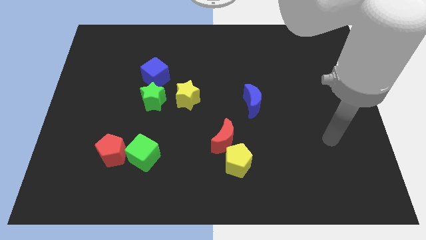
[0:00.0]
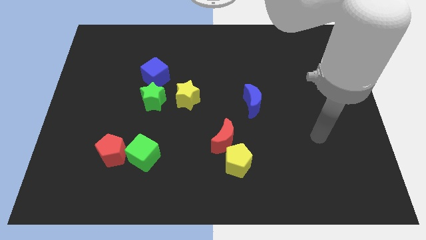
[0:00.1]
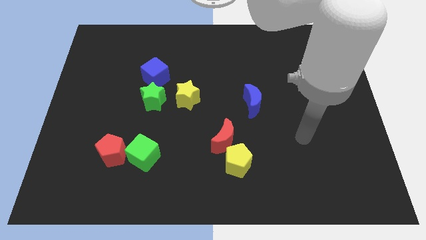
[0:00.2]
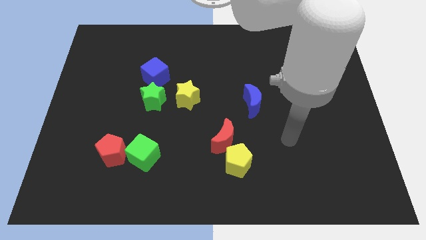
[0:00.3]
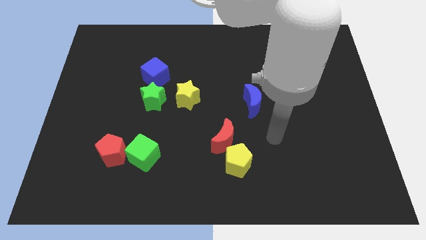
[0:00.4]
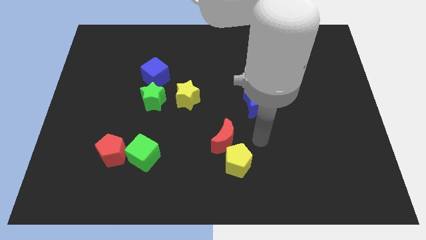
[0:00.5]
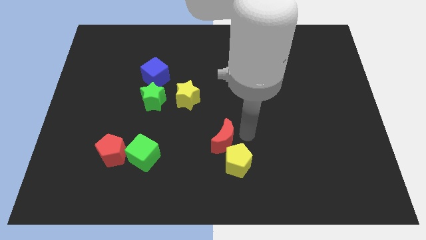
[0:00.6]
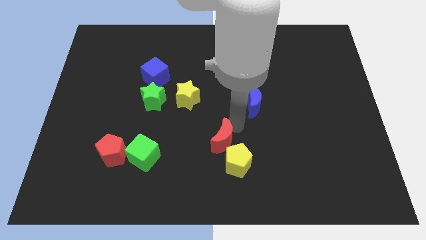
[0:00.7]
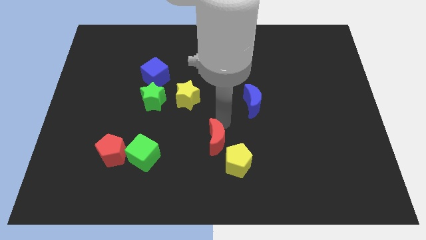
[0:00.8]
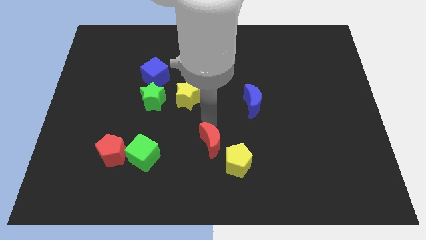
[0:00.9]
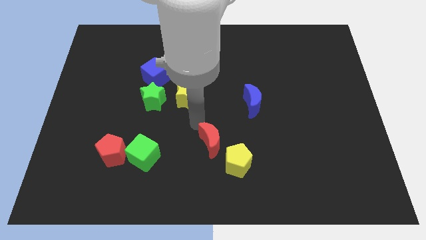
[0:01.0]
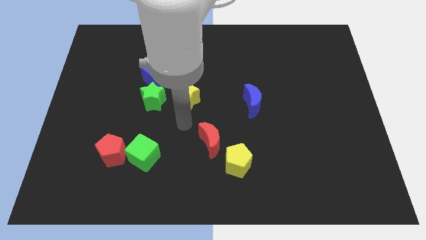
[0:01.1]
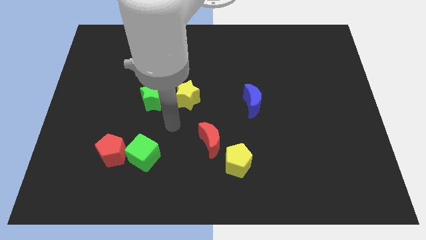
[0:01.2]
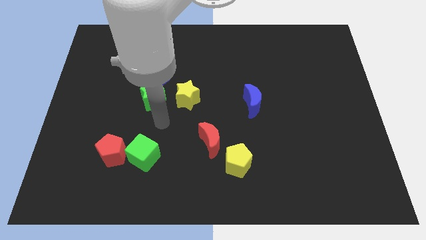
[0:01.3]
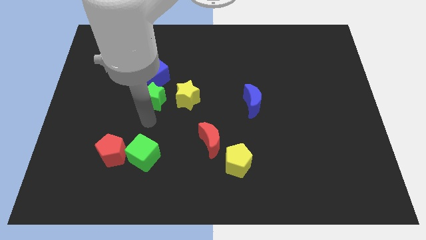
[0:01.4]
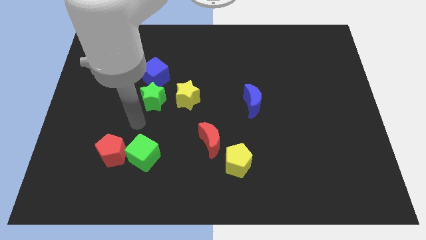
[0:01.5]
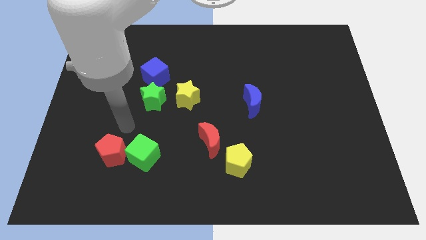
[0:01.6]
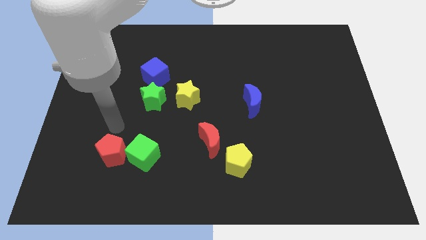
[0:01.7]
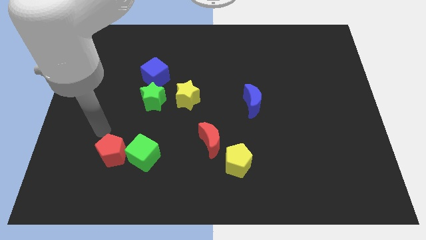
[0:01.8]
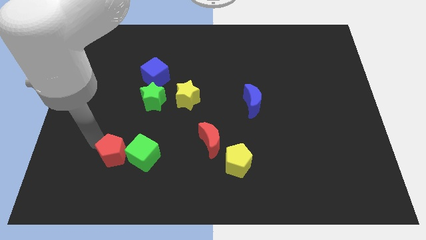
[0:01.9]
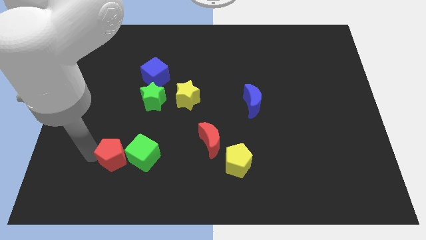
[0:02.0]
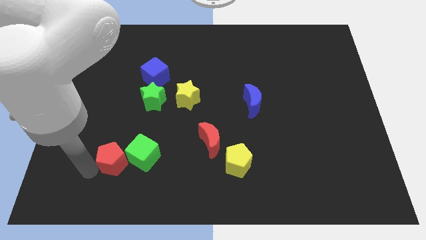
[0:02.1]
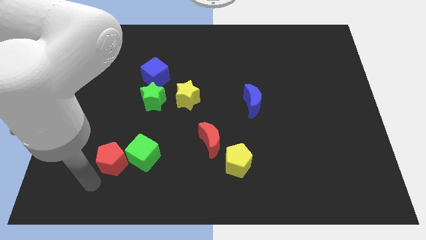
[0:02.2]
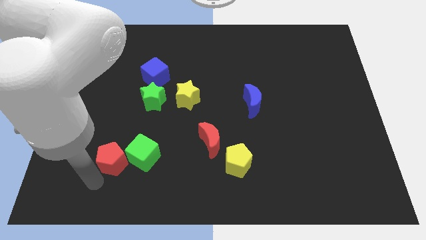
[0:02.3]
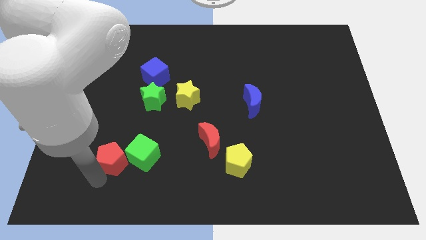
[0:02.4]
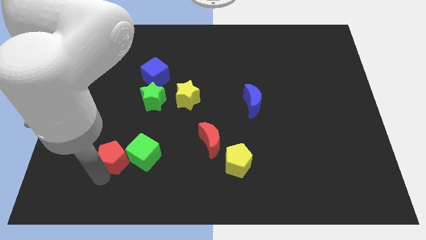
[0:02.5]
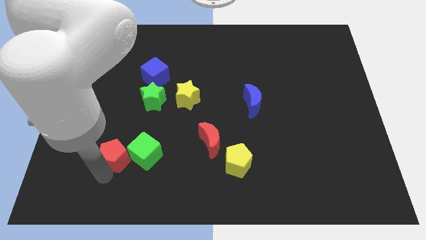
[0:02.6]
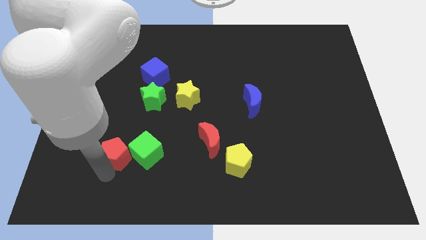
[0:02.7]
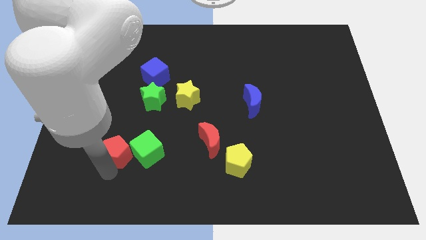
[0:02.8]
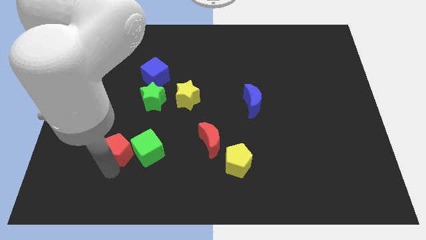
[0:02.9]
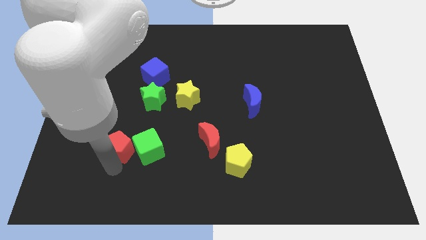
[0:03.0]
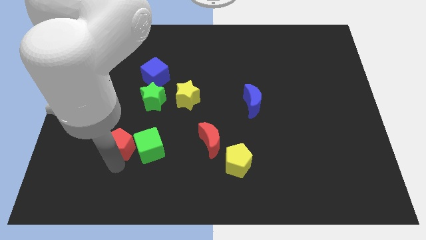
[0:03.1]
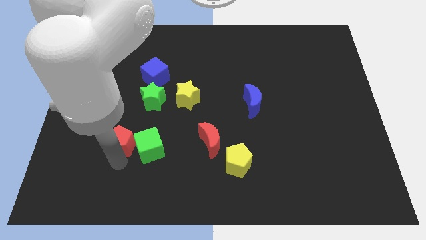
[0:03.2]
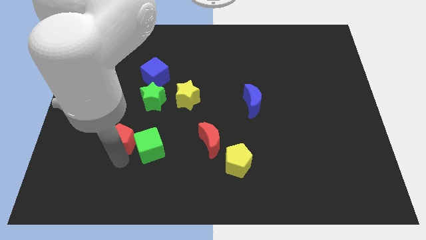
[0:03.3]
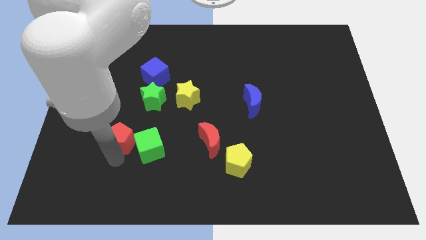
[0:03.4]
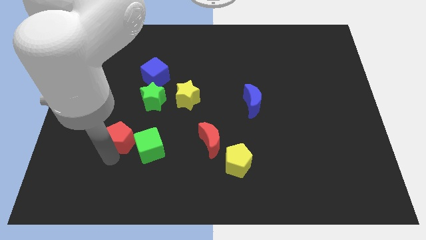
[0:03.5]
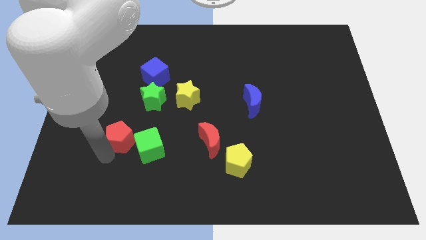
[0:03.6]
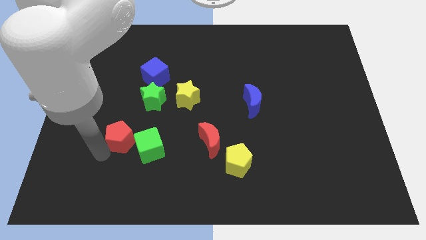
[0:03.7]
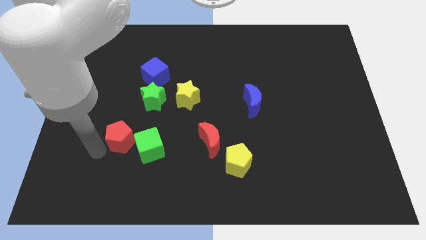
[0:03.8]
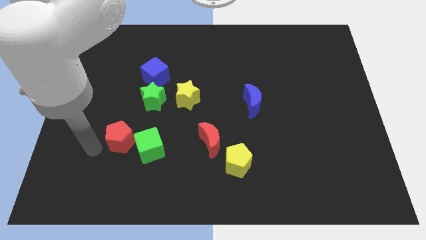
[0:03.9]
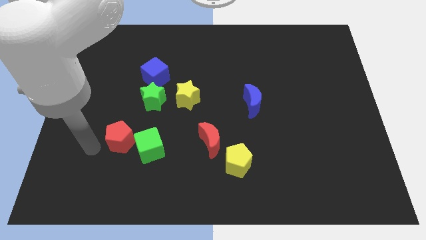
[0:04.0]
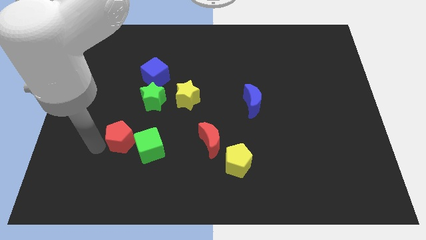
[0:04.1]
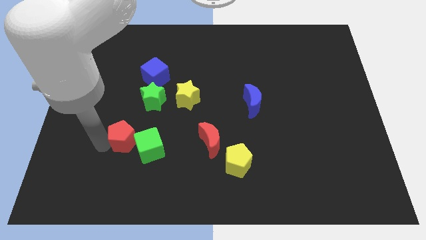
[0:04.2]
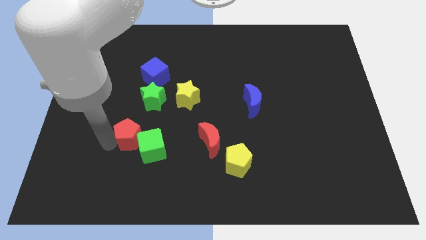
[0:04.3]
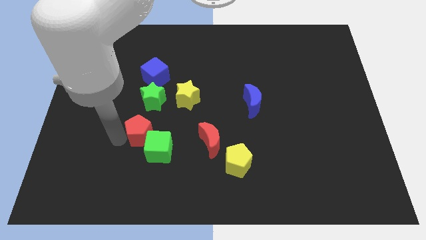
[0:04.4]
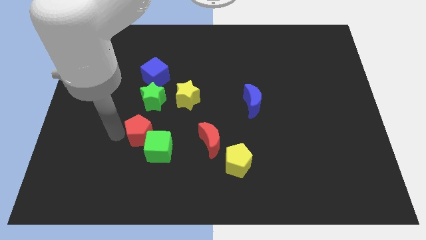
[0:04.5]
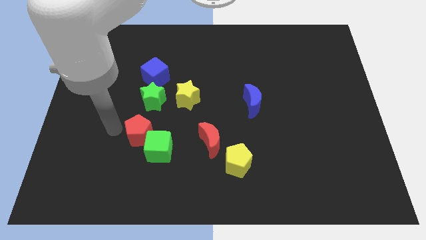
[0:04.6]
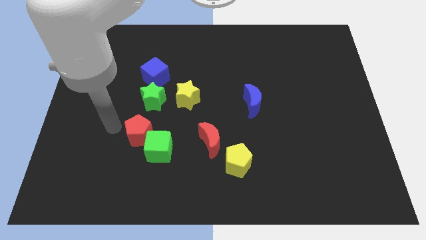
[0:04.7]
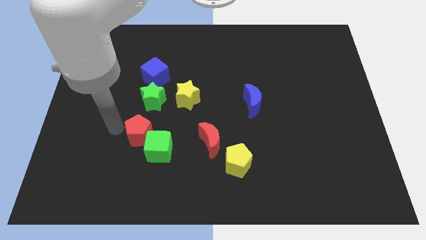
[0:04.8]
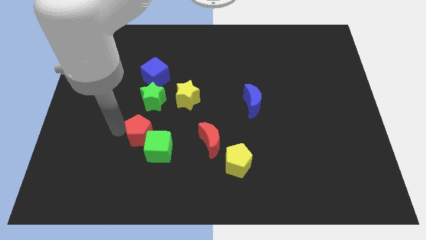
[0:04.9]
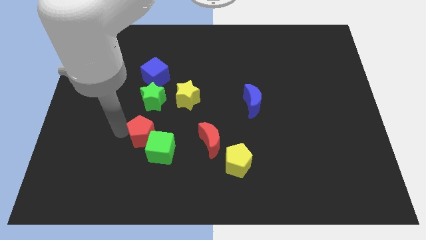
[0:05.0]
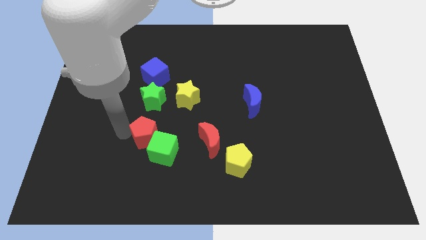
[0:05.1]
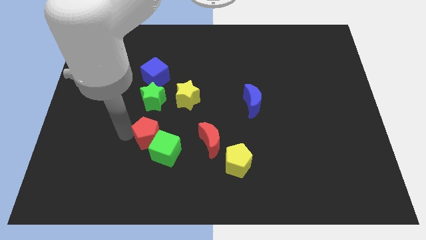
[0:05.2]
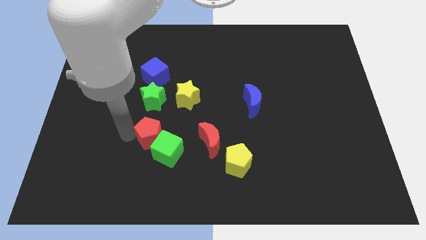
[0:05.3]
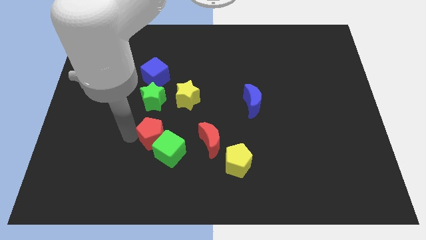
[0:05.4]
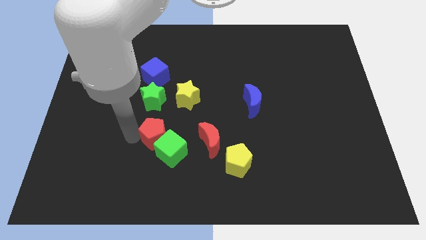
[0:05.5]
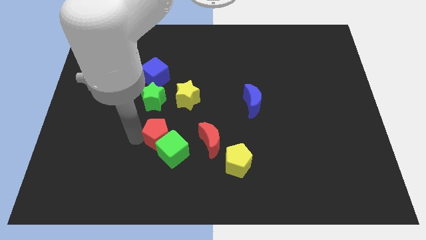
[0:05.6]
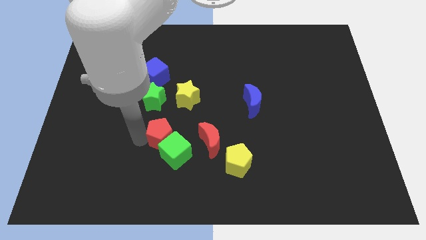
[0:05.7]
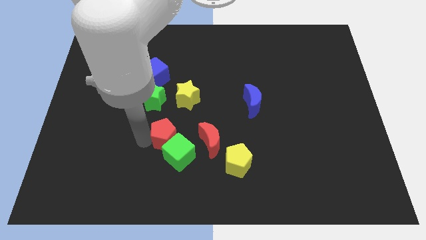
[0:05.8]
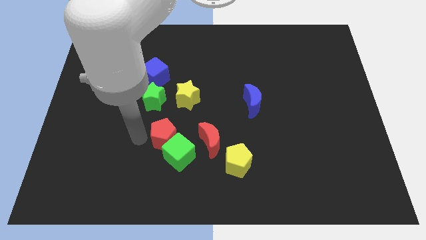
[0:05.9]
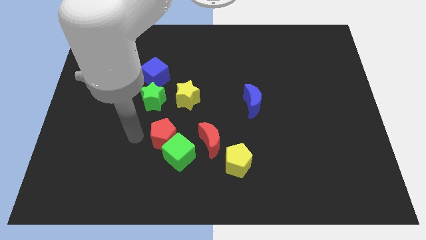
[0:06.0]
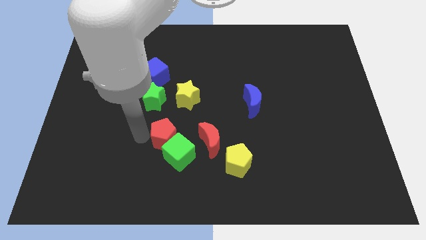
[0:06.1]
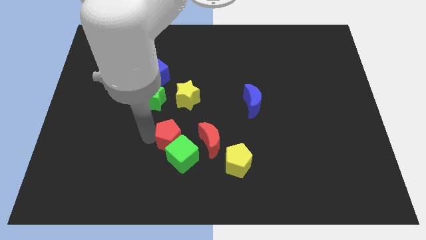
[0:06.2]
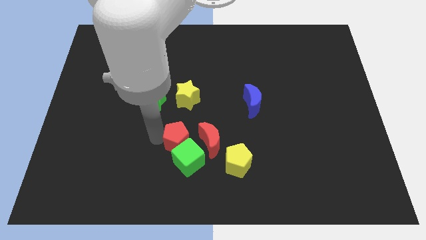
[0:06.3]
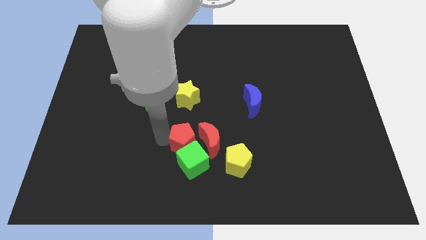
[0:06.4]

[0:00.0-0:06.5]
put the red pentagon next to the red moon

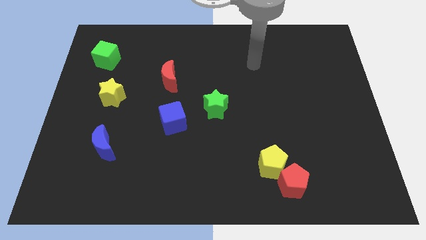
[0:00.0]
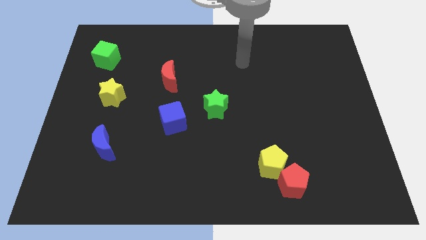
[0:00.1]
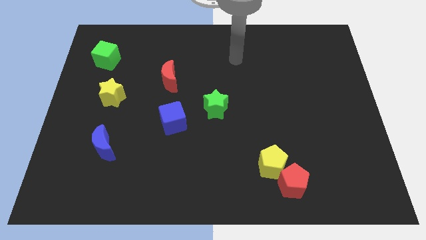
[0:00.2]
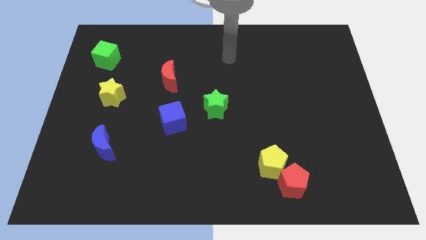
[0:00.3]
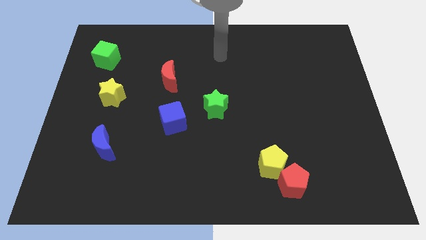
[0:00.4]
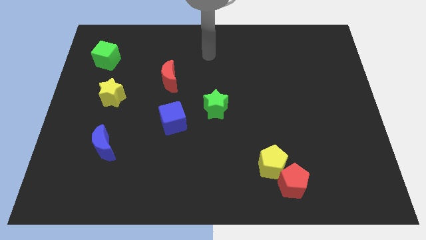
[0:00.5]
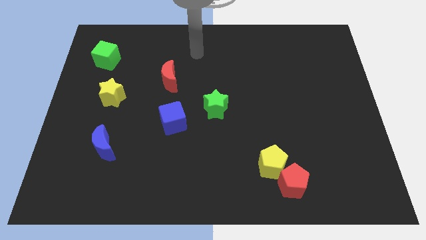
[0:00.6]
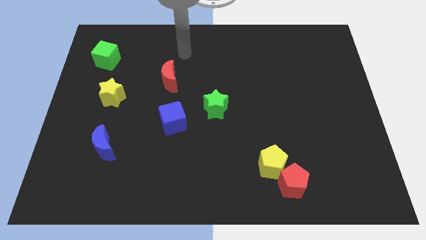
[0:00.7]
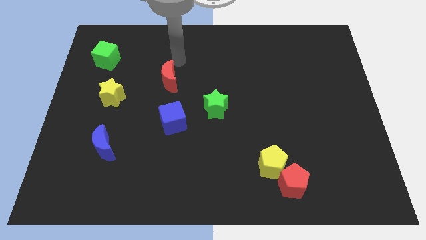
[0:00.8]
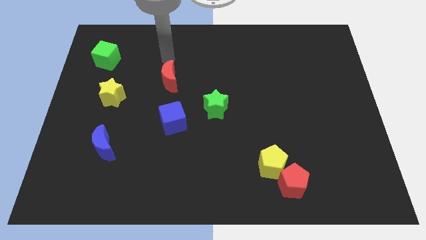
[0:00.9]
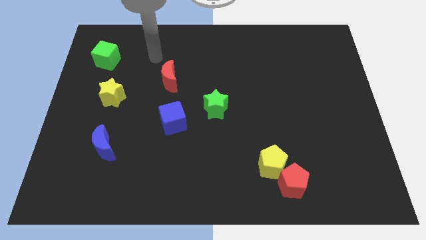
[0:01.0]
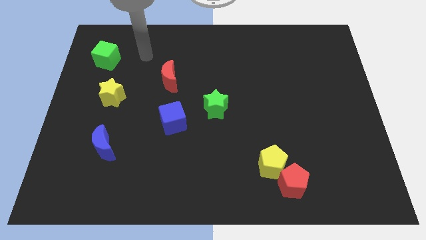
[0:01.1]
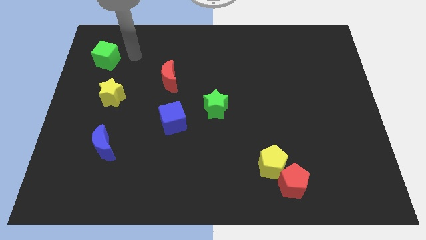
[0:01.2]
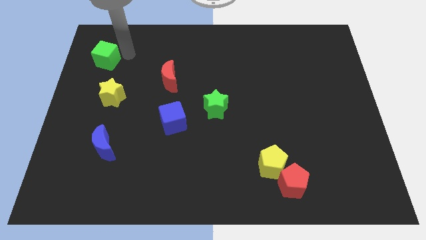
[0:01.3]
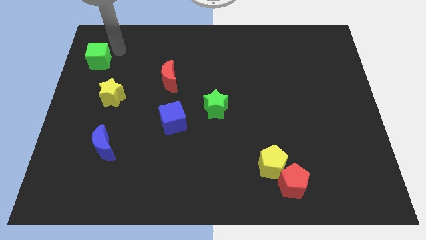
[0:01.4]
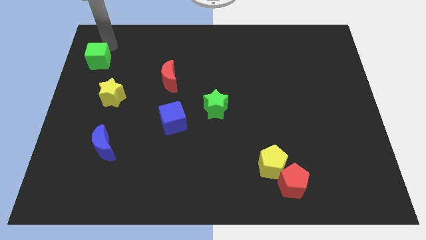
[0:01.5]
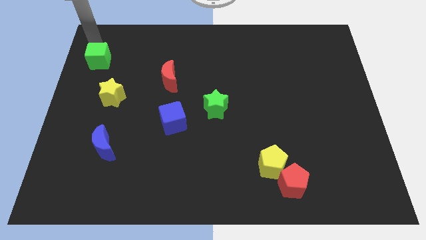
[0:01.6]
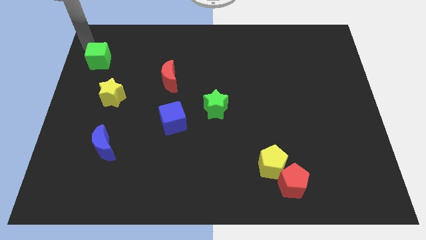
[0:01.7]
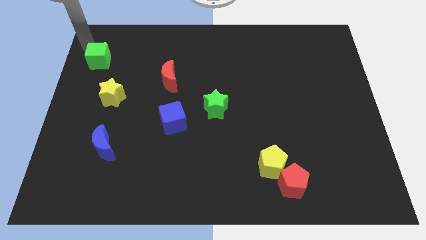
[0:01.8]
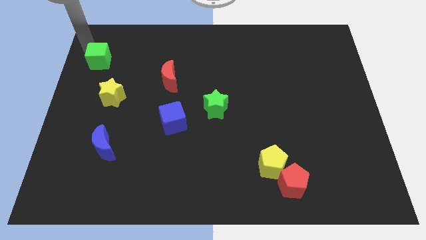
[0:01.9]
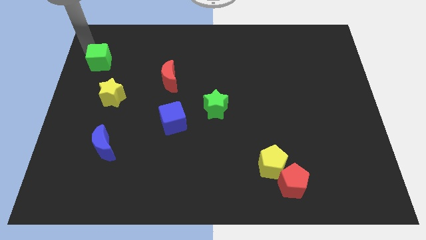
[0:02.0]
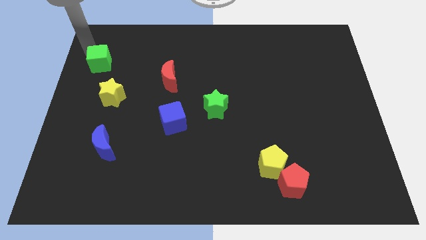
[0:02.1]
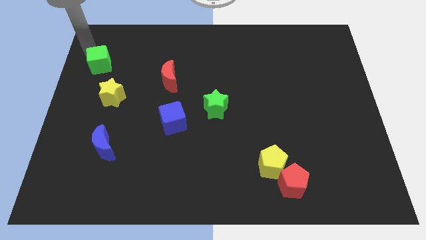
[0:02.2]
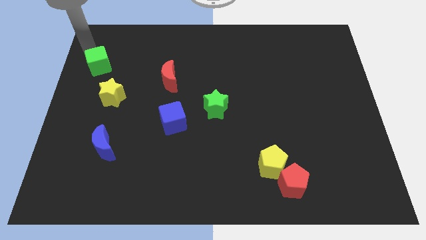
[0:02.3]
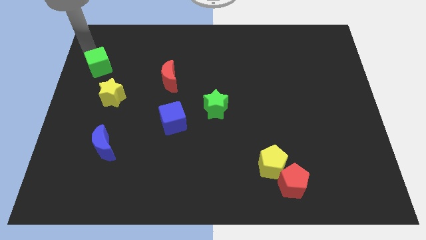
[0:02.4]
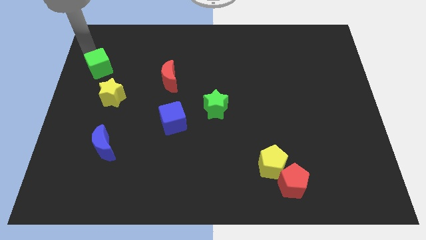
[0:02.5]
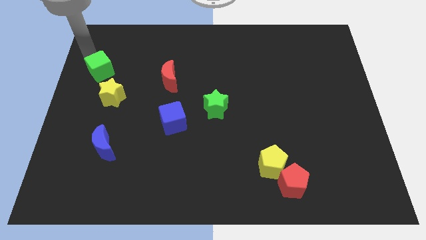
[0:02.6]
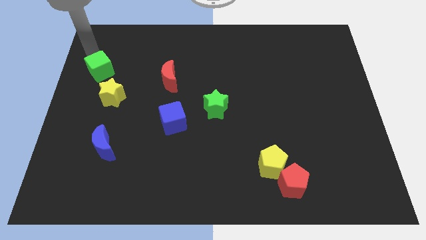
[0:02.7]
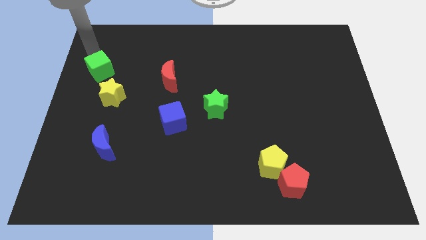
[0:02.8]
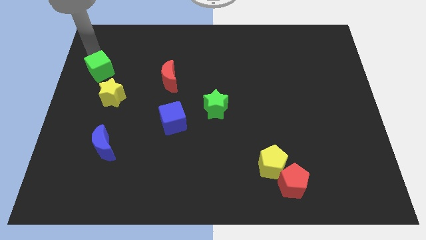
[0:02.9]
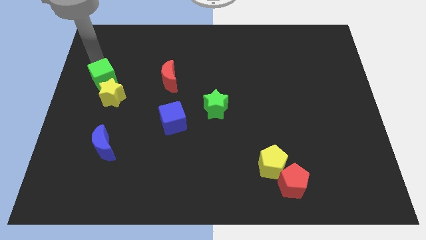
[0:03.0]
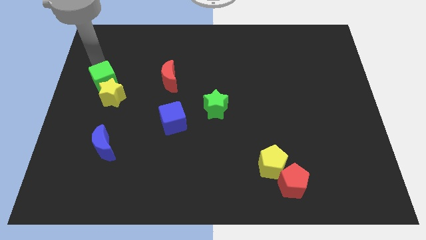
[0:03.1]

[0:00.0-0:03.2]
slide the green cube towards the yellow star
